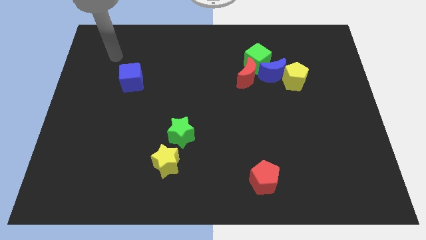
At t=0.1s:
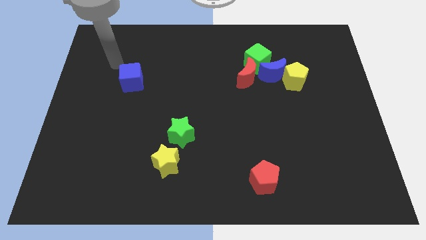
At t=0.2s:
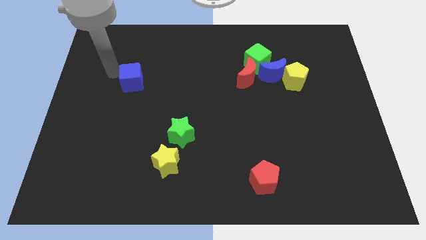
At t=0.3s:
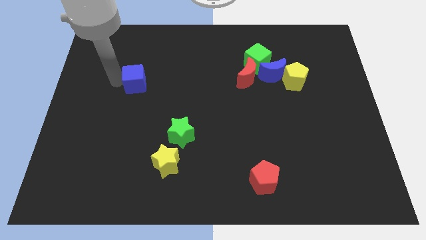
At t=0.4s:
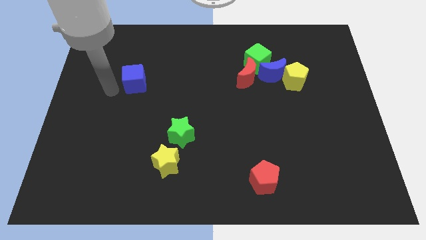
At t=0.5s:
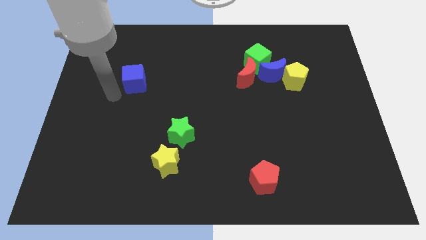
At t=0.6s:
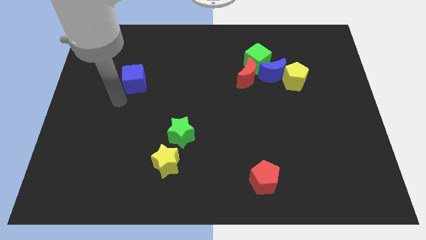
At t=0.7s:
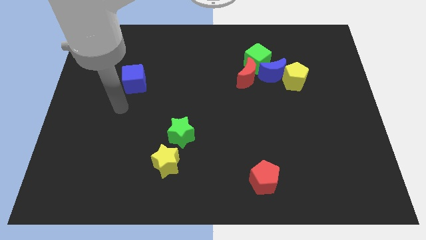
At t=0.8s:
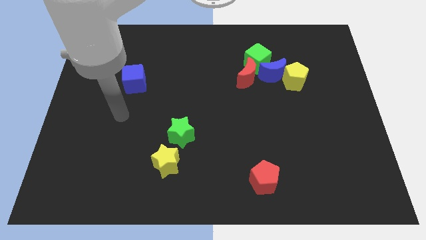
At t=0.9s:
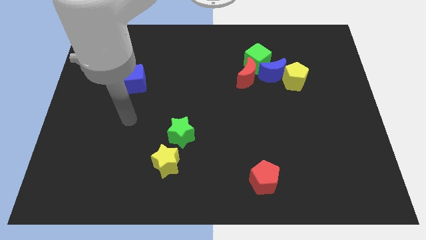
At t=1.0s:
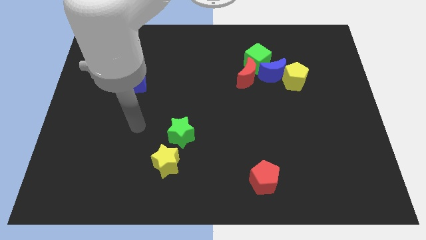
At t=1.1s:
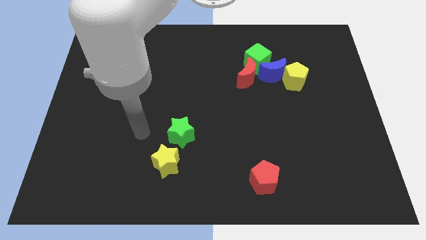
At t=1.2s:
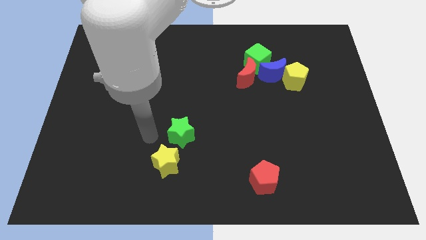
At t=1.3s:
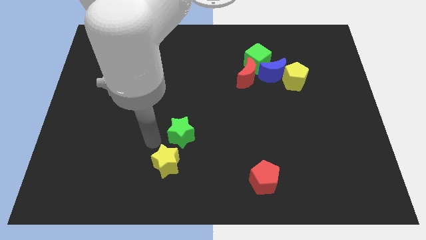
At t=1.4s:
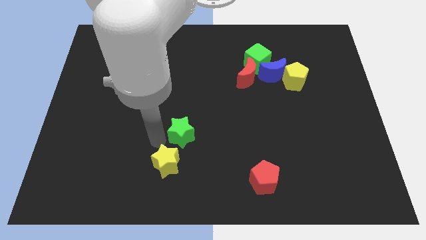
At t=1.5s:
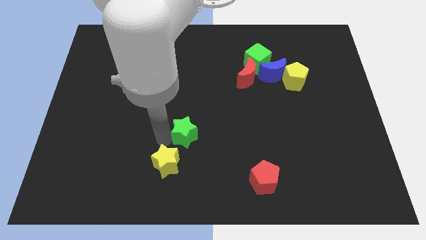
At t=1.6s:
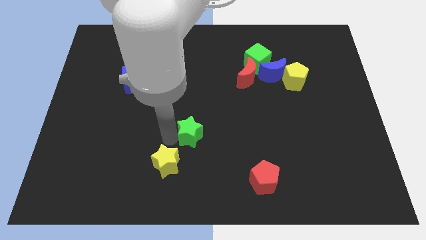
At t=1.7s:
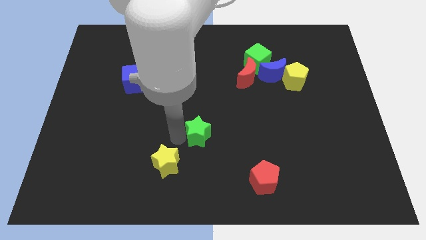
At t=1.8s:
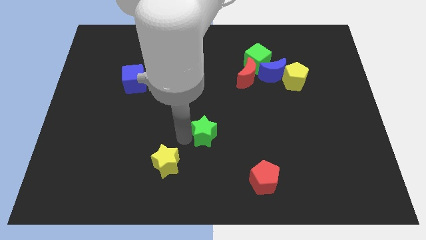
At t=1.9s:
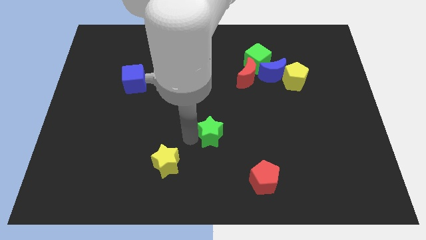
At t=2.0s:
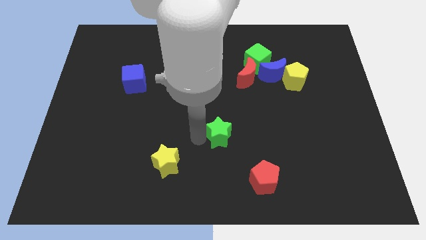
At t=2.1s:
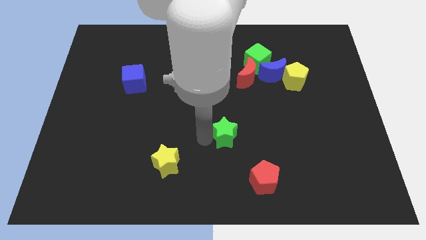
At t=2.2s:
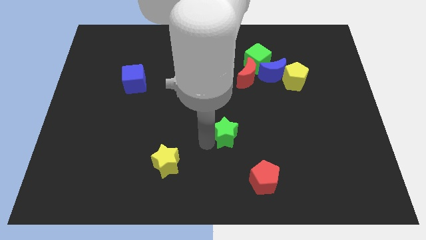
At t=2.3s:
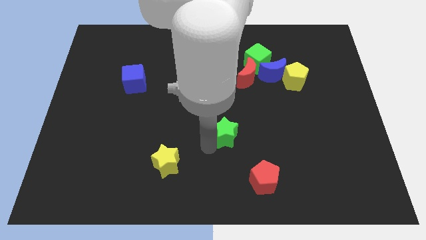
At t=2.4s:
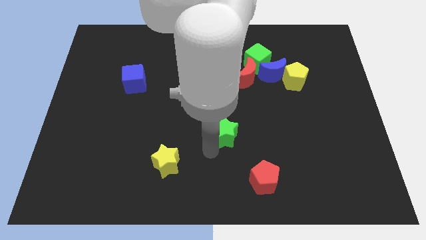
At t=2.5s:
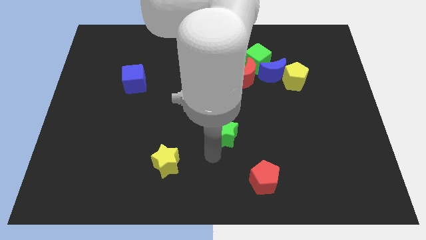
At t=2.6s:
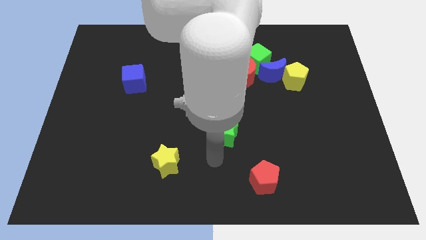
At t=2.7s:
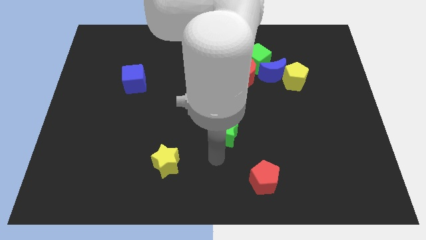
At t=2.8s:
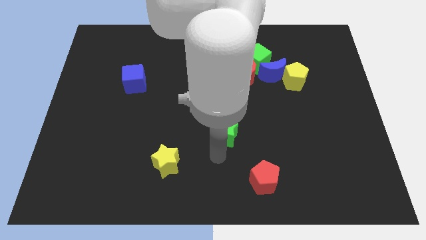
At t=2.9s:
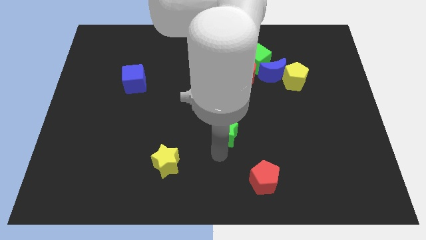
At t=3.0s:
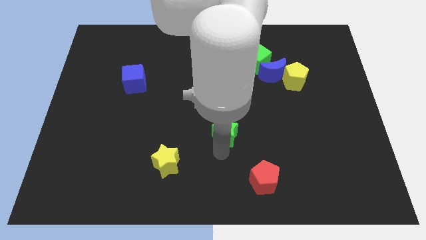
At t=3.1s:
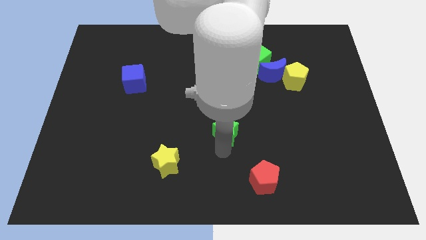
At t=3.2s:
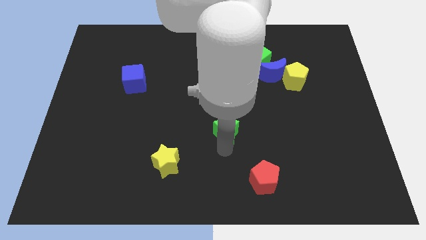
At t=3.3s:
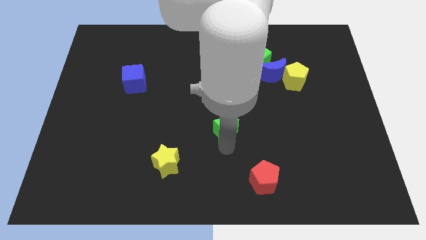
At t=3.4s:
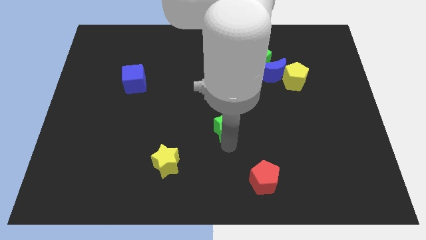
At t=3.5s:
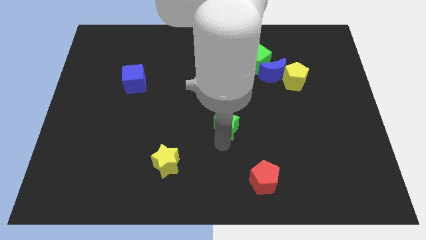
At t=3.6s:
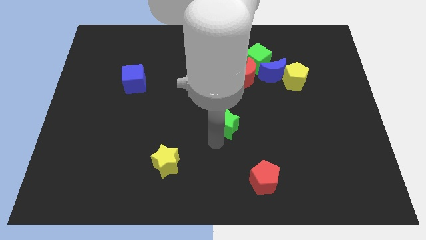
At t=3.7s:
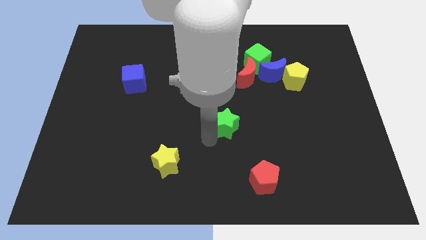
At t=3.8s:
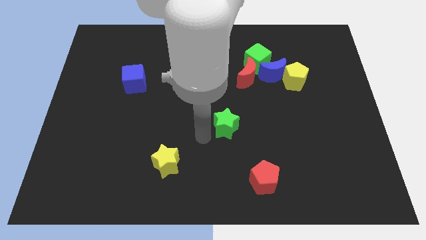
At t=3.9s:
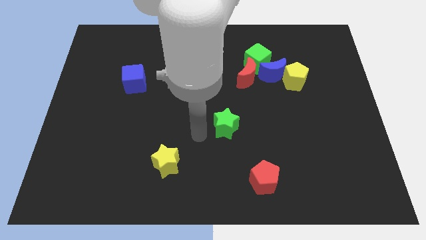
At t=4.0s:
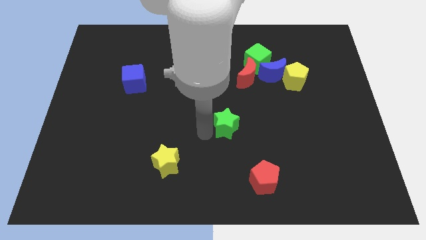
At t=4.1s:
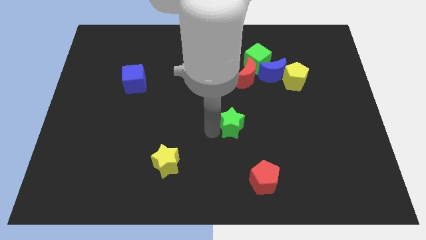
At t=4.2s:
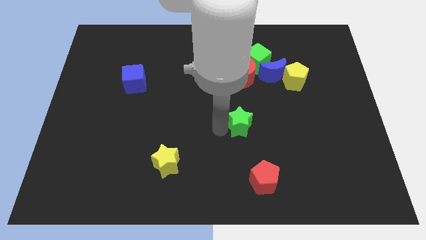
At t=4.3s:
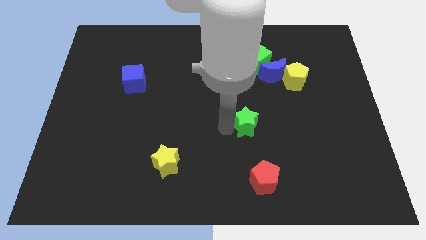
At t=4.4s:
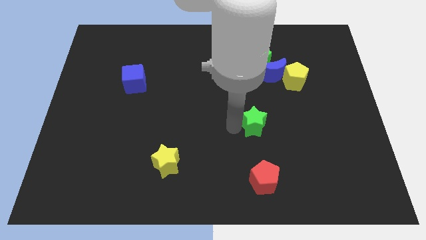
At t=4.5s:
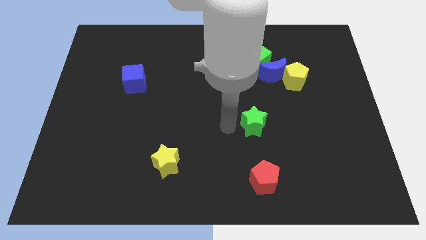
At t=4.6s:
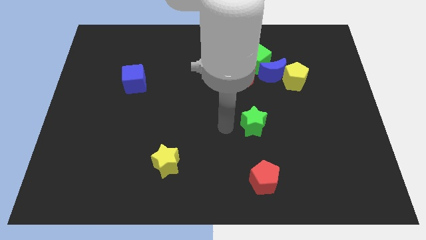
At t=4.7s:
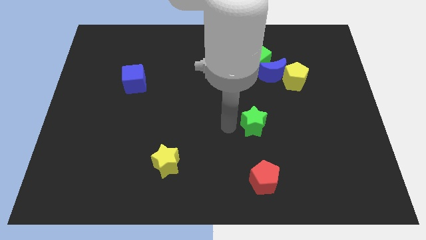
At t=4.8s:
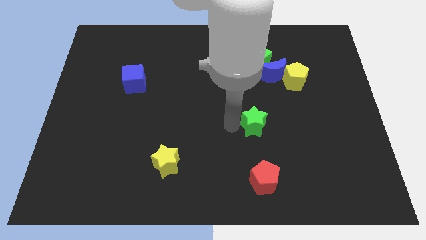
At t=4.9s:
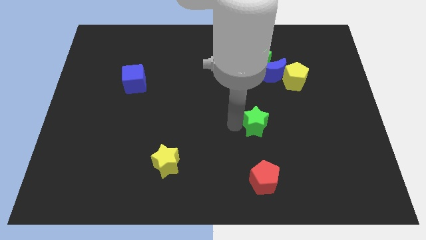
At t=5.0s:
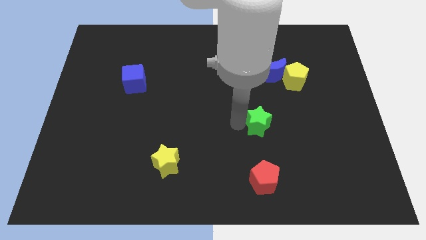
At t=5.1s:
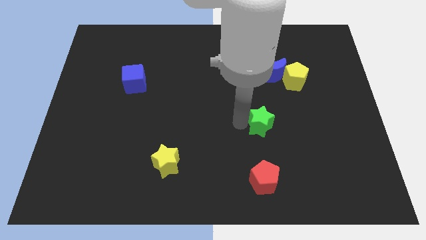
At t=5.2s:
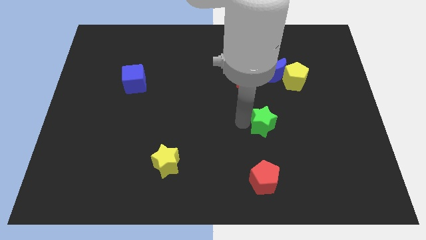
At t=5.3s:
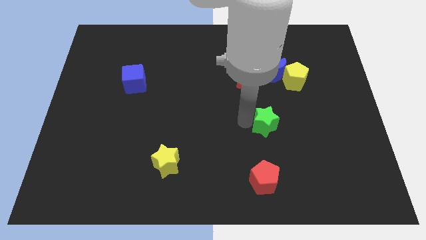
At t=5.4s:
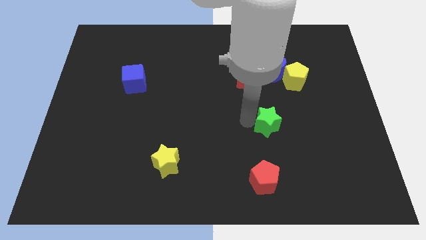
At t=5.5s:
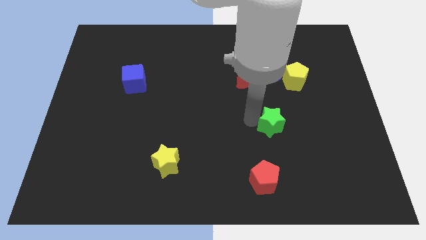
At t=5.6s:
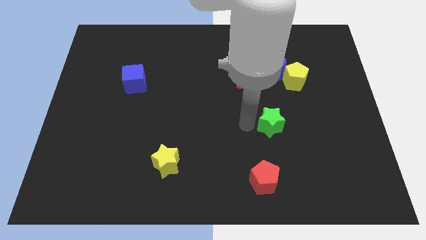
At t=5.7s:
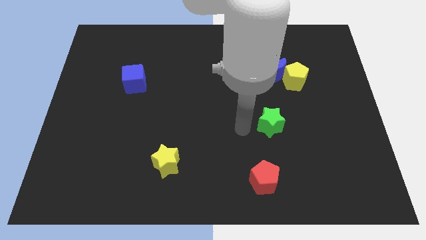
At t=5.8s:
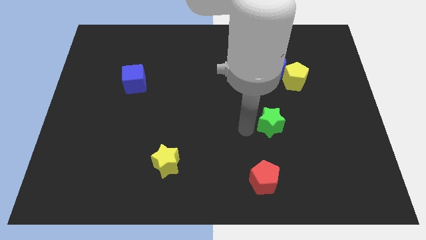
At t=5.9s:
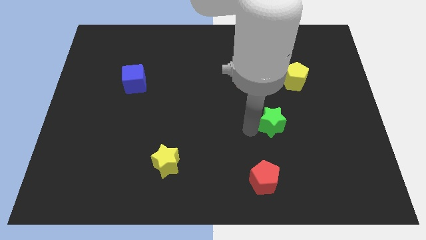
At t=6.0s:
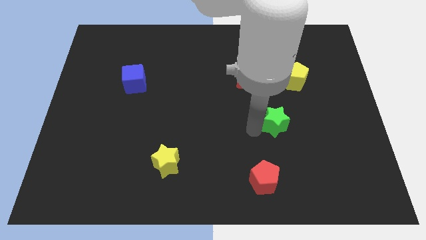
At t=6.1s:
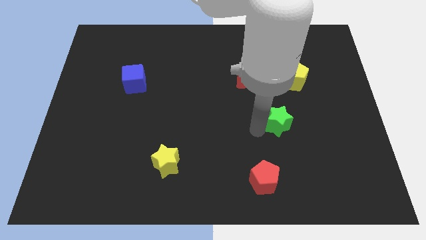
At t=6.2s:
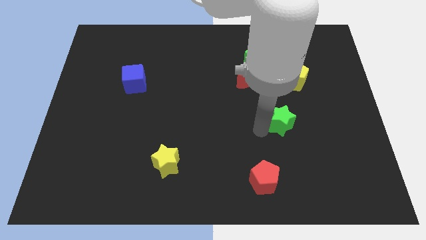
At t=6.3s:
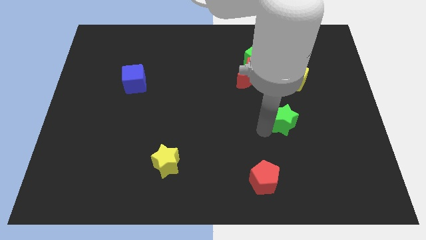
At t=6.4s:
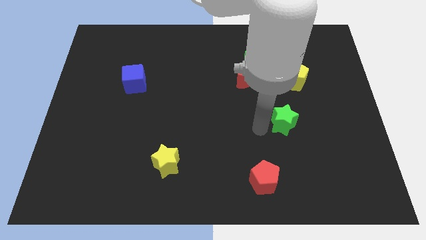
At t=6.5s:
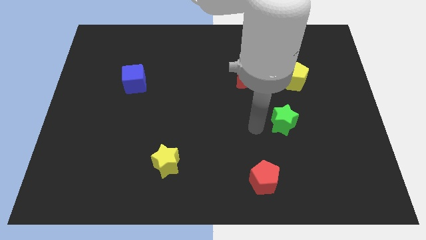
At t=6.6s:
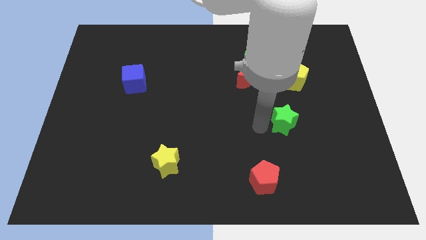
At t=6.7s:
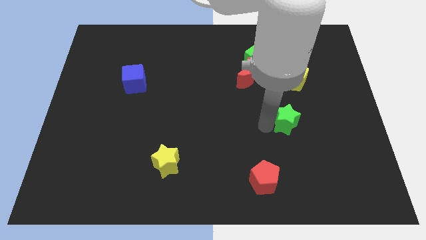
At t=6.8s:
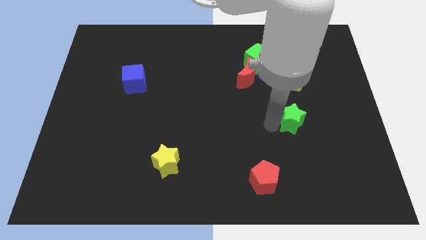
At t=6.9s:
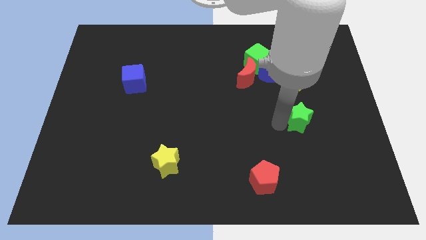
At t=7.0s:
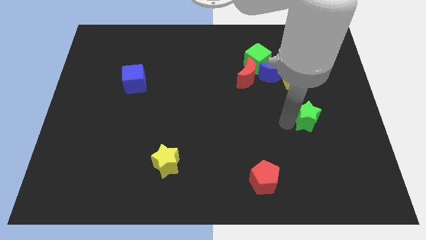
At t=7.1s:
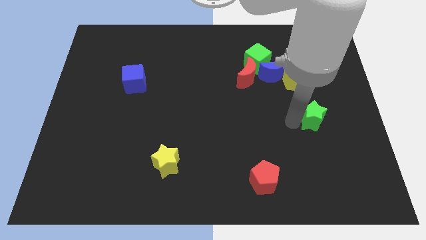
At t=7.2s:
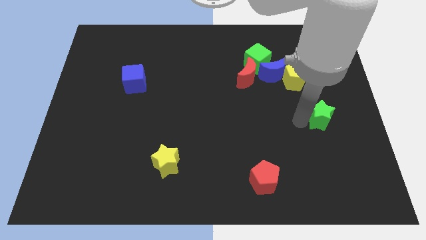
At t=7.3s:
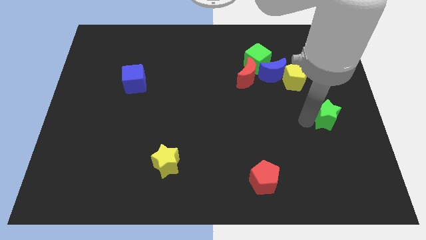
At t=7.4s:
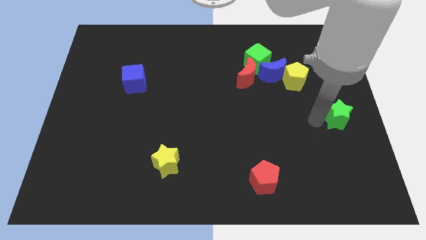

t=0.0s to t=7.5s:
push the green star to the right side of the board
